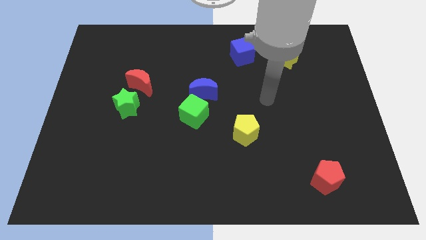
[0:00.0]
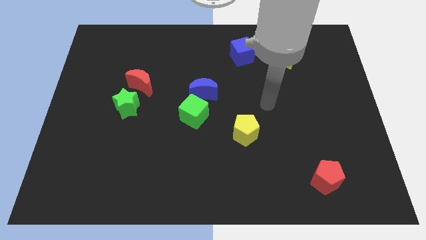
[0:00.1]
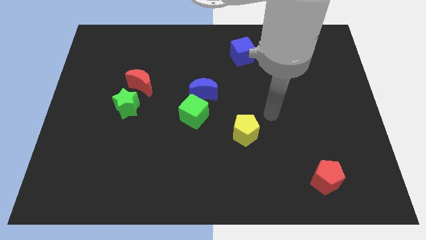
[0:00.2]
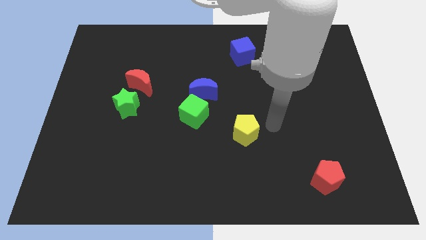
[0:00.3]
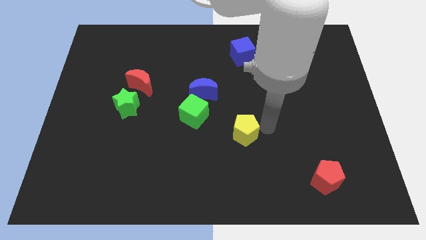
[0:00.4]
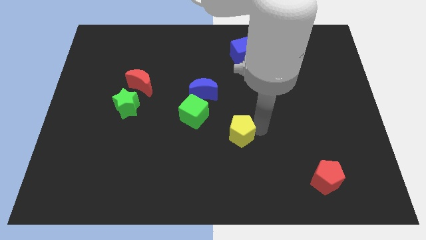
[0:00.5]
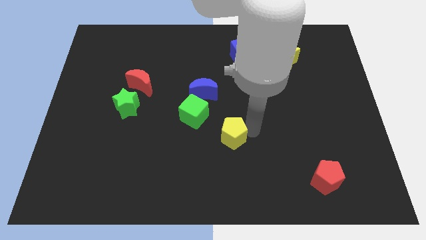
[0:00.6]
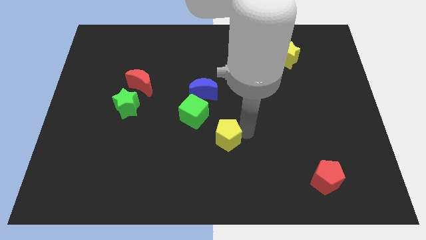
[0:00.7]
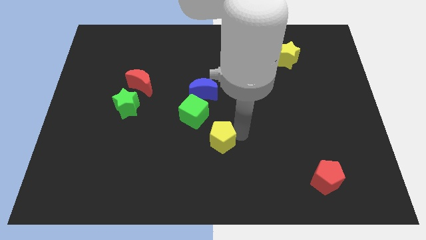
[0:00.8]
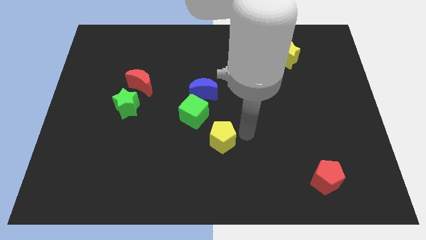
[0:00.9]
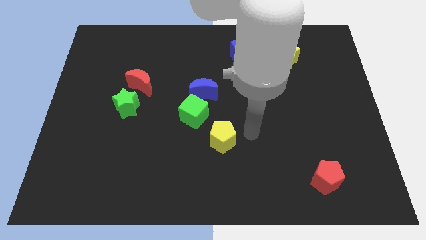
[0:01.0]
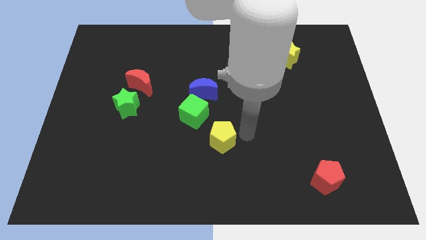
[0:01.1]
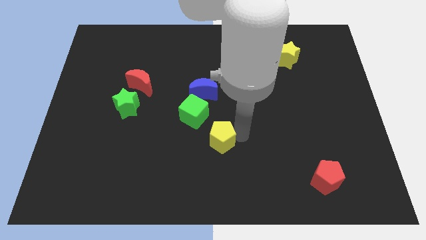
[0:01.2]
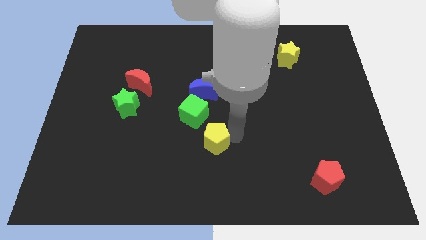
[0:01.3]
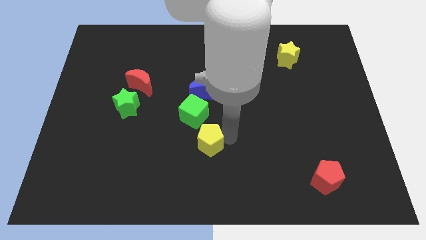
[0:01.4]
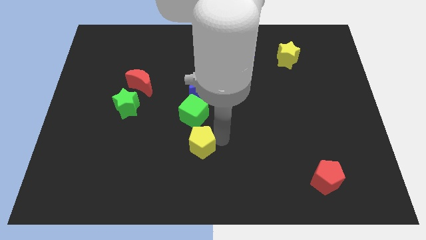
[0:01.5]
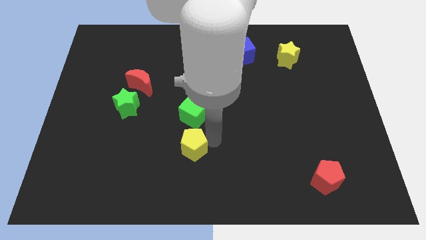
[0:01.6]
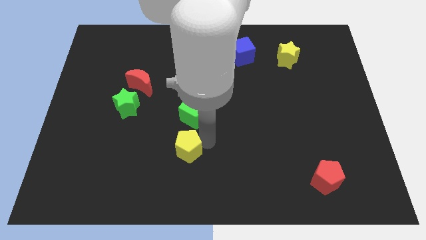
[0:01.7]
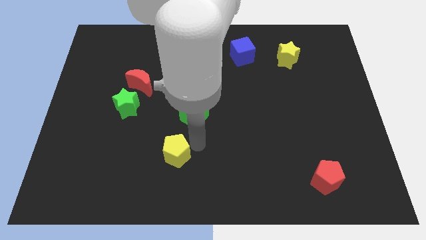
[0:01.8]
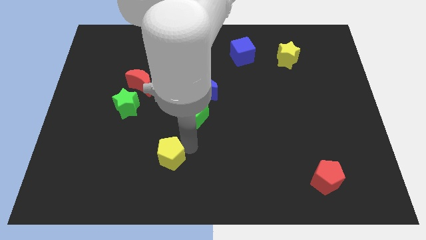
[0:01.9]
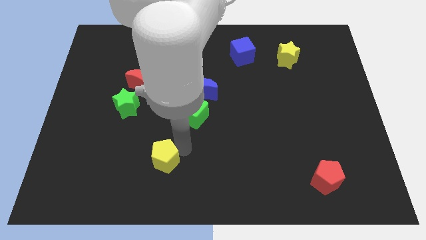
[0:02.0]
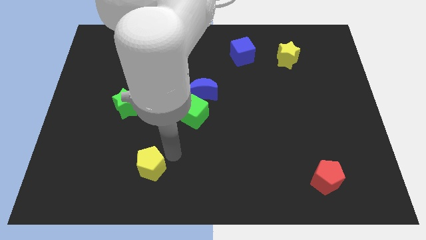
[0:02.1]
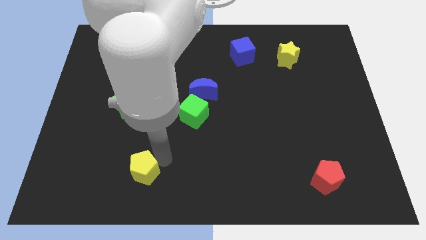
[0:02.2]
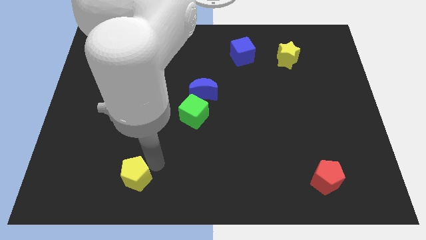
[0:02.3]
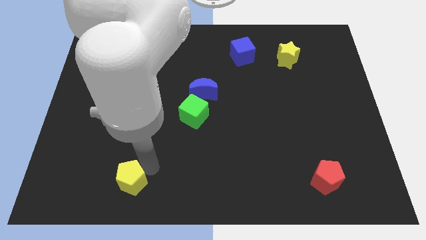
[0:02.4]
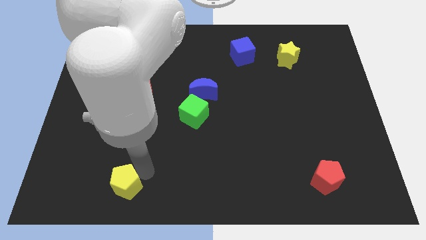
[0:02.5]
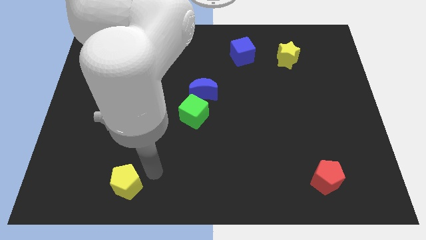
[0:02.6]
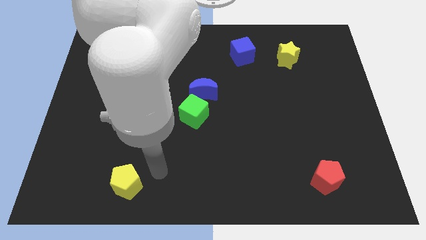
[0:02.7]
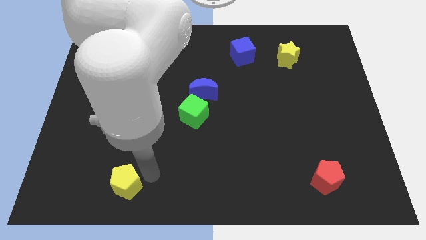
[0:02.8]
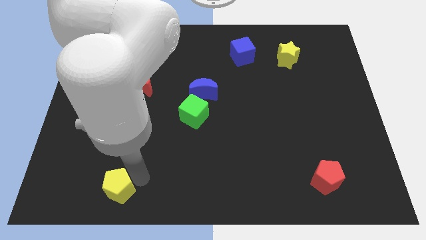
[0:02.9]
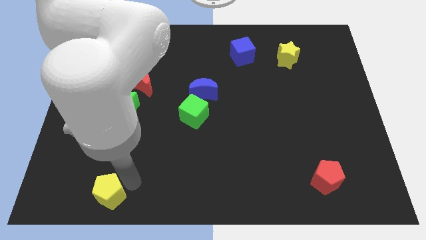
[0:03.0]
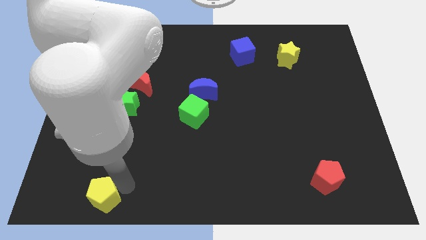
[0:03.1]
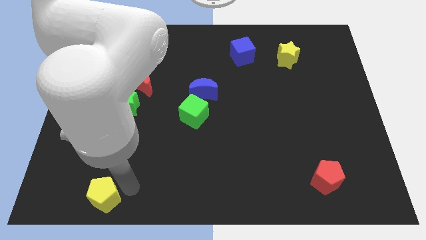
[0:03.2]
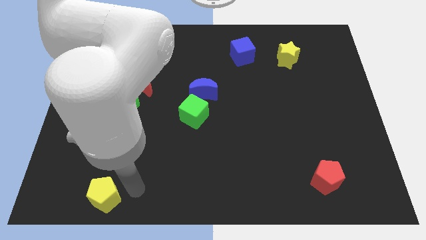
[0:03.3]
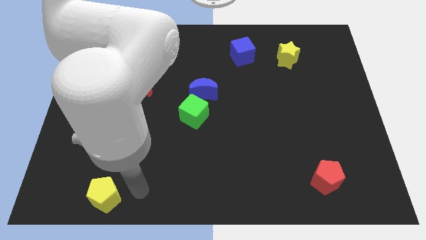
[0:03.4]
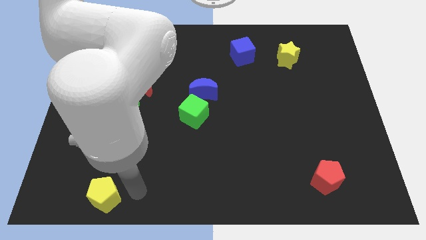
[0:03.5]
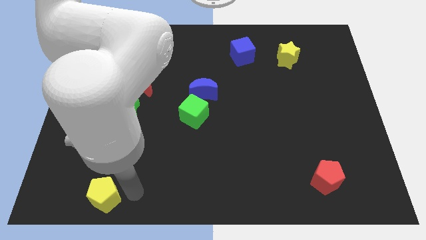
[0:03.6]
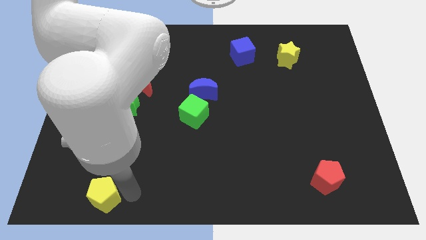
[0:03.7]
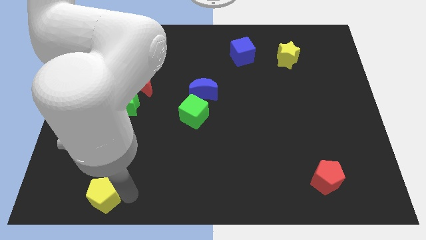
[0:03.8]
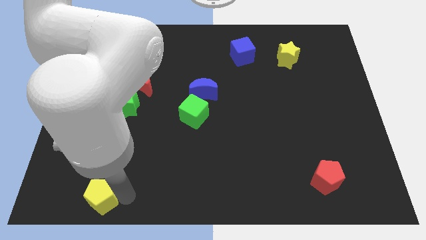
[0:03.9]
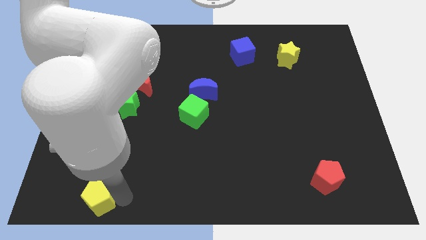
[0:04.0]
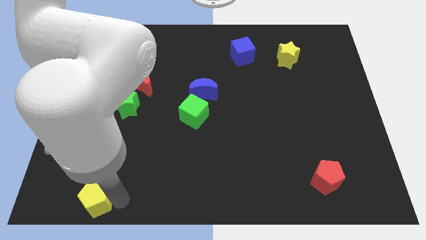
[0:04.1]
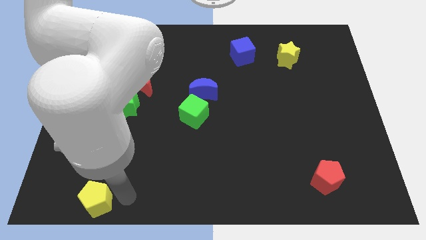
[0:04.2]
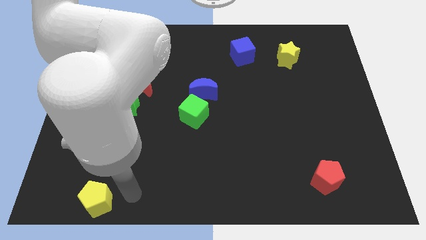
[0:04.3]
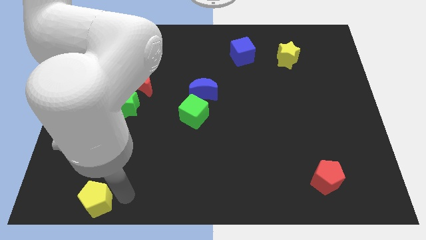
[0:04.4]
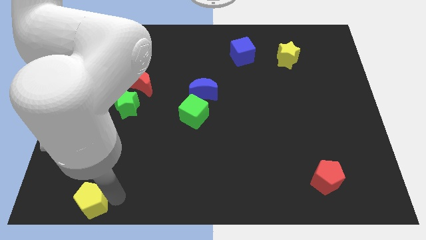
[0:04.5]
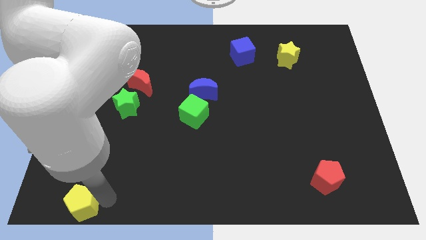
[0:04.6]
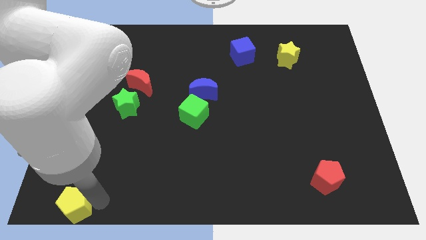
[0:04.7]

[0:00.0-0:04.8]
put the yellow pentagon to the bottom left

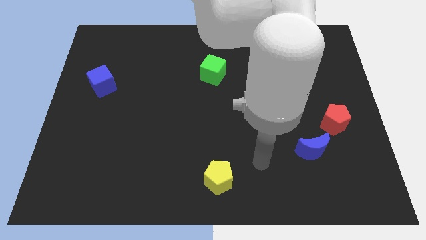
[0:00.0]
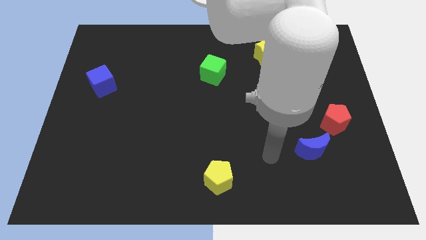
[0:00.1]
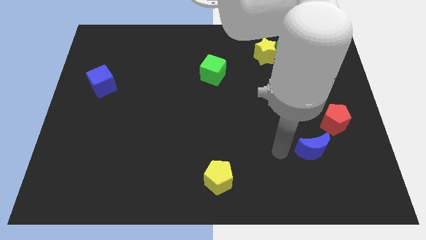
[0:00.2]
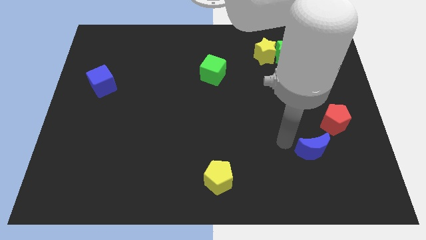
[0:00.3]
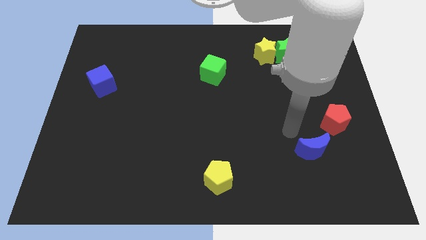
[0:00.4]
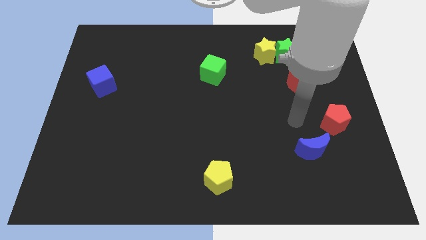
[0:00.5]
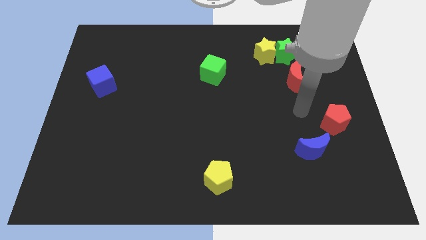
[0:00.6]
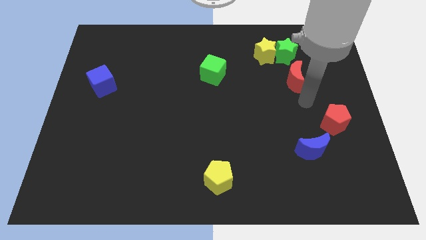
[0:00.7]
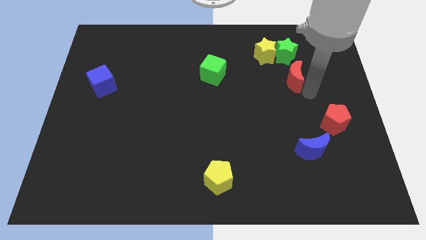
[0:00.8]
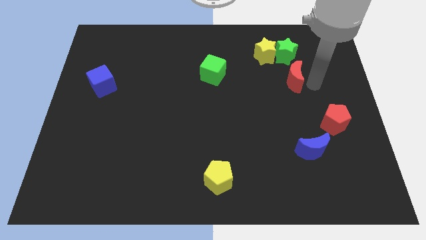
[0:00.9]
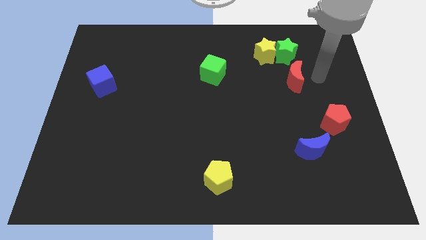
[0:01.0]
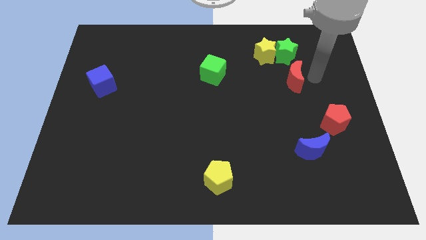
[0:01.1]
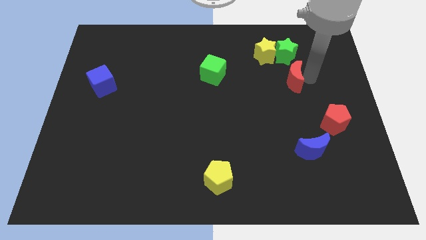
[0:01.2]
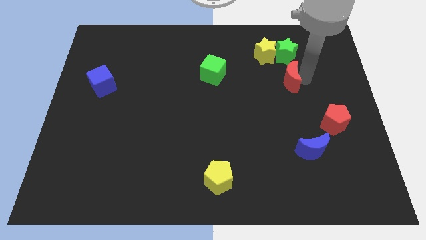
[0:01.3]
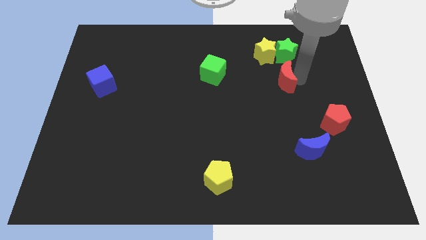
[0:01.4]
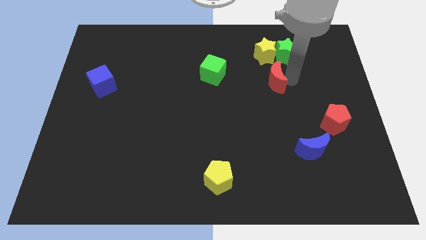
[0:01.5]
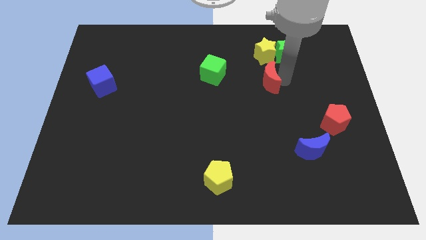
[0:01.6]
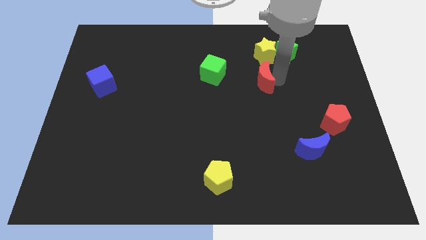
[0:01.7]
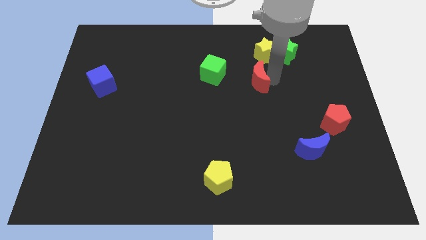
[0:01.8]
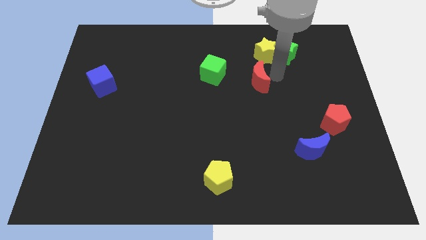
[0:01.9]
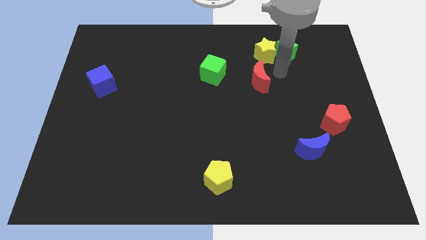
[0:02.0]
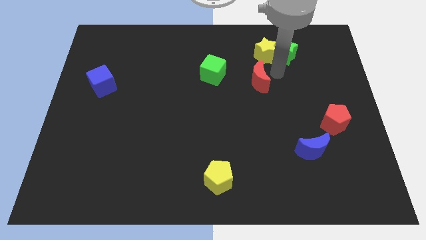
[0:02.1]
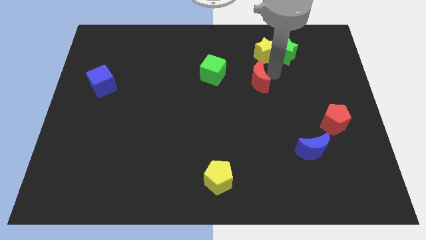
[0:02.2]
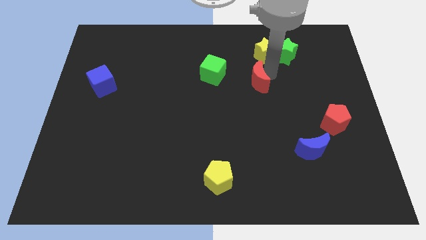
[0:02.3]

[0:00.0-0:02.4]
move the red moon to the middle
